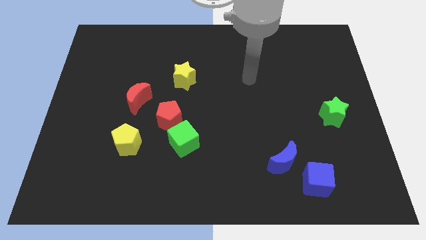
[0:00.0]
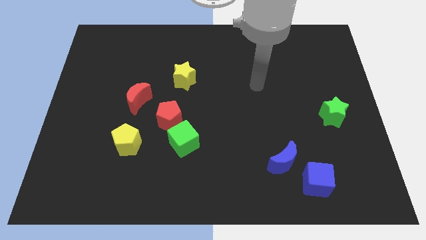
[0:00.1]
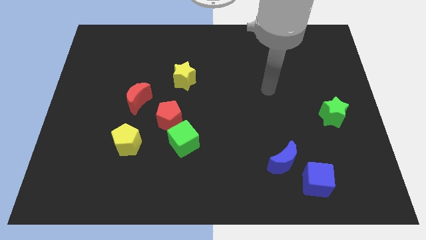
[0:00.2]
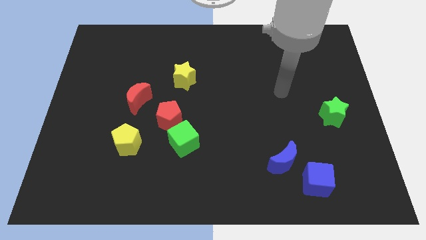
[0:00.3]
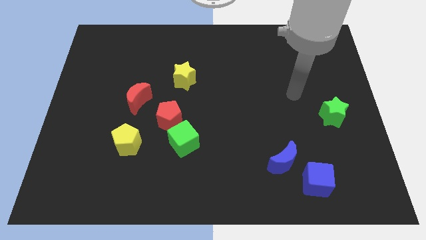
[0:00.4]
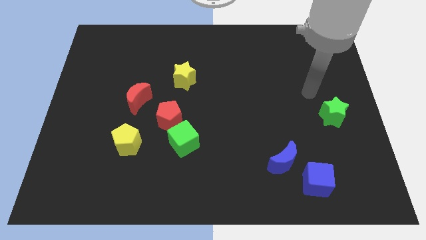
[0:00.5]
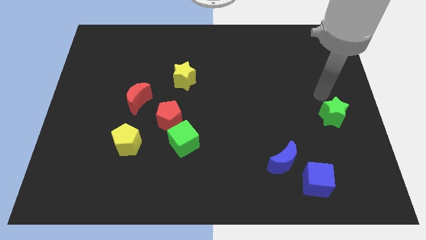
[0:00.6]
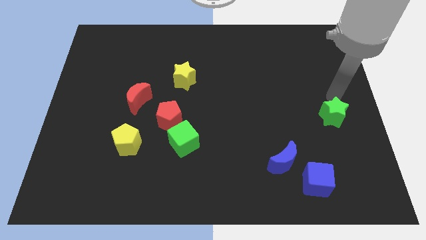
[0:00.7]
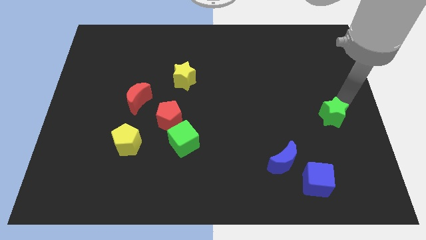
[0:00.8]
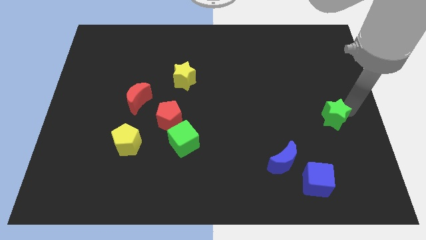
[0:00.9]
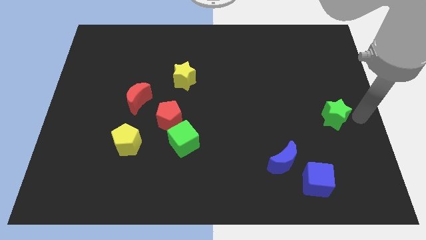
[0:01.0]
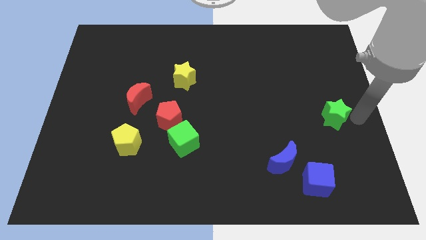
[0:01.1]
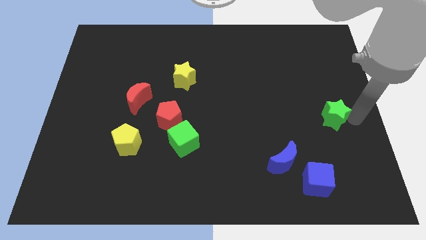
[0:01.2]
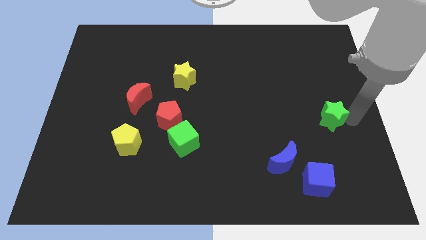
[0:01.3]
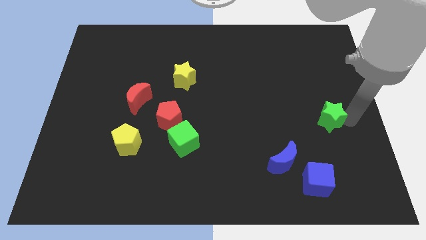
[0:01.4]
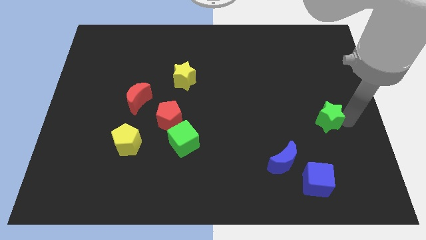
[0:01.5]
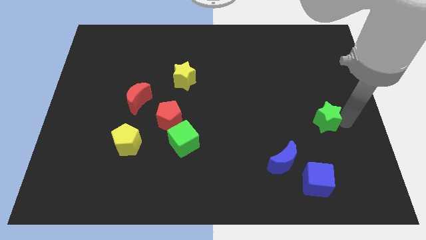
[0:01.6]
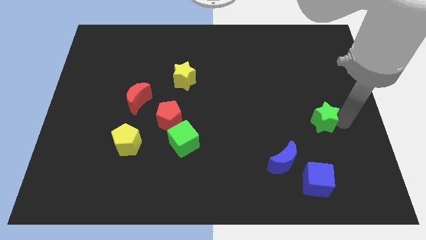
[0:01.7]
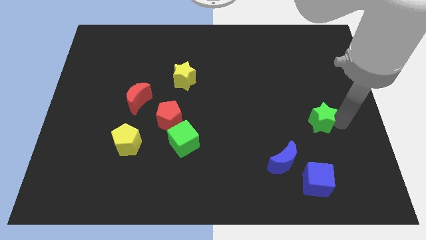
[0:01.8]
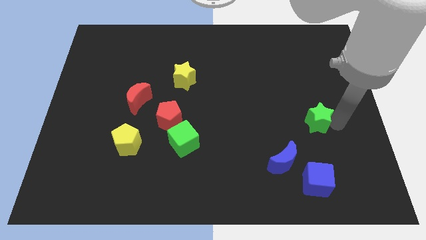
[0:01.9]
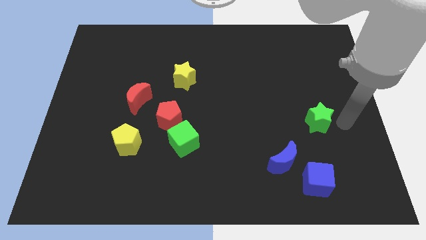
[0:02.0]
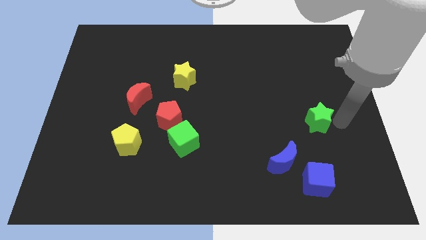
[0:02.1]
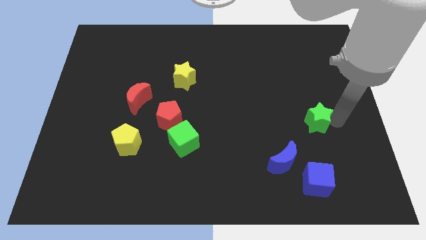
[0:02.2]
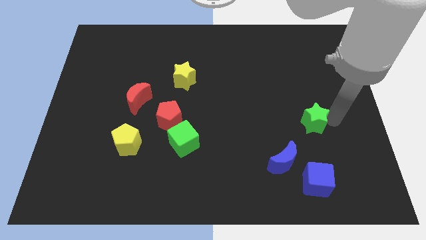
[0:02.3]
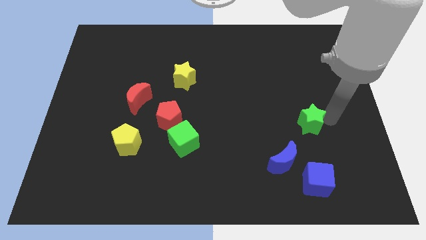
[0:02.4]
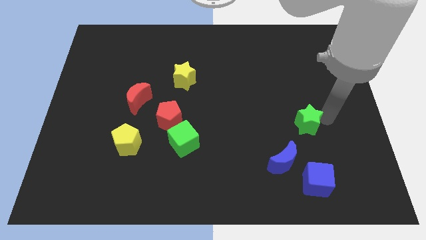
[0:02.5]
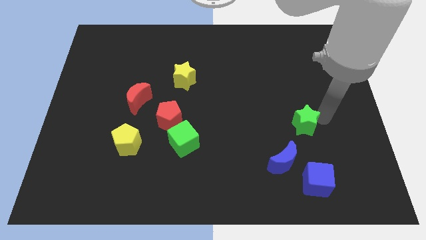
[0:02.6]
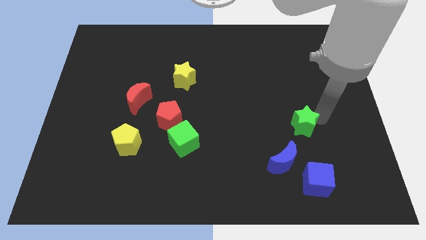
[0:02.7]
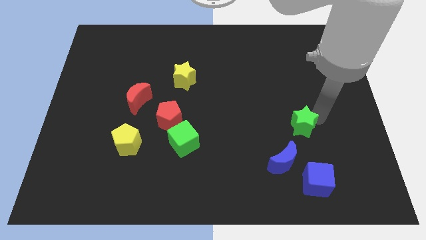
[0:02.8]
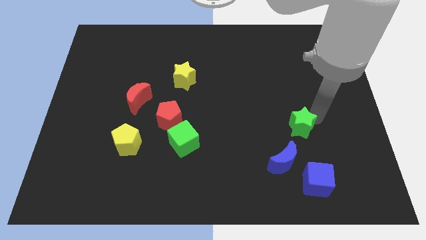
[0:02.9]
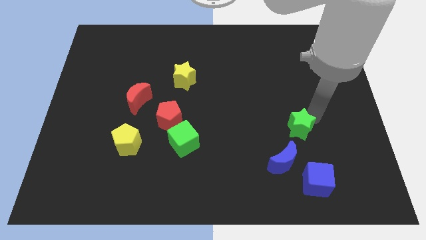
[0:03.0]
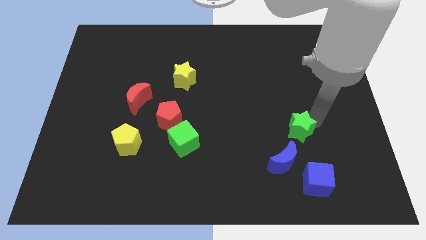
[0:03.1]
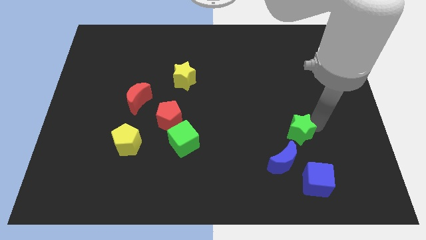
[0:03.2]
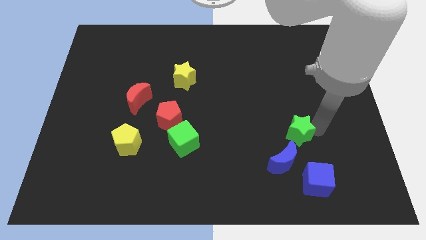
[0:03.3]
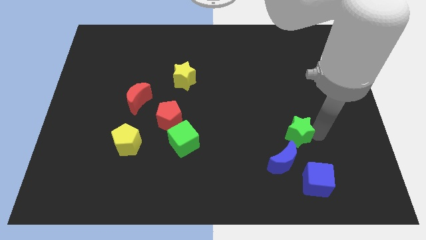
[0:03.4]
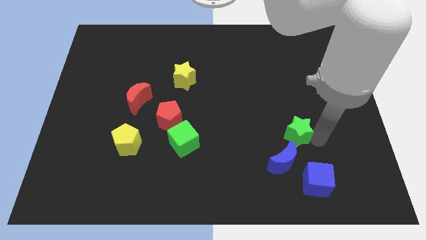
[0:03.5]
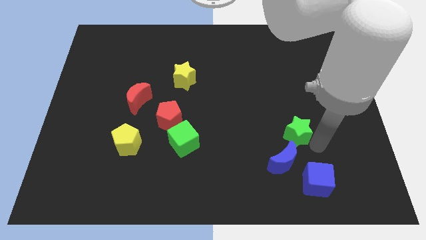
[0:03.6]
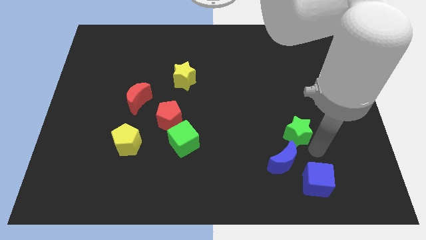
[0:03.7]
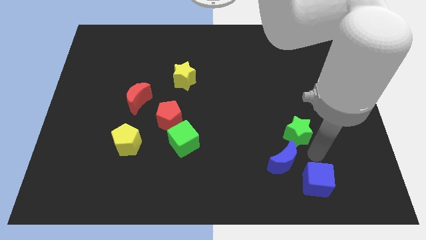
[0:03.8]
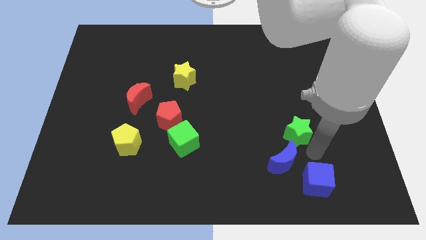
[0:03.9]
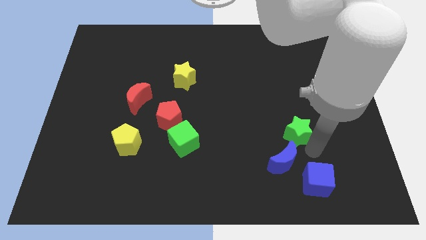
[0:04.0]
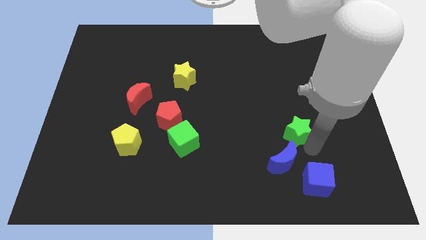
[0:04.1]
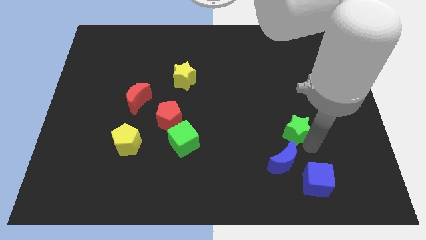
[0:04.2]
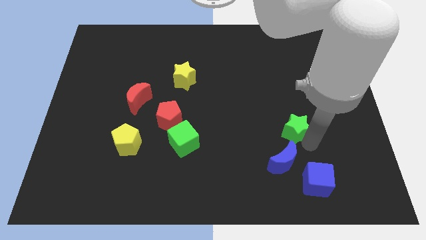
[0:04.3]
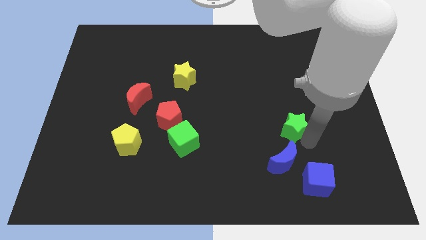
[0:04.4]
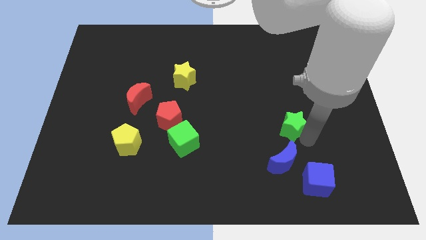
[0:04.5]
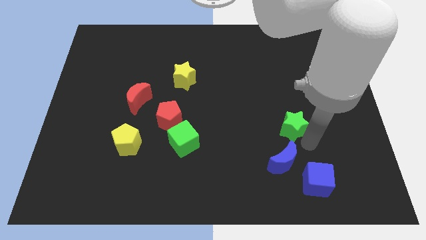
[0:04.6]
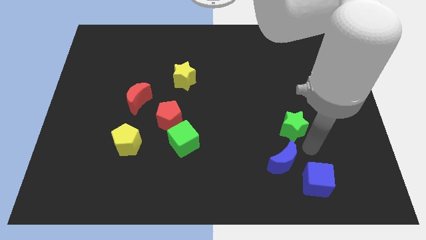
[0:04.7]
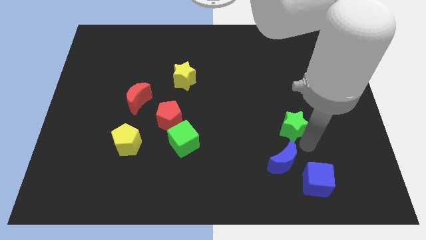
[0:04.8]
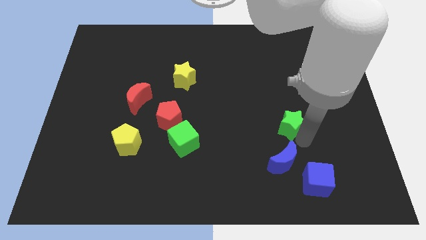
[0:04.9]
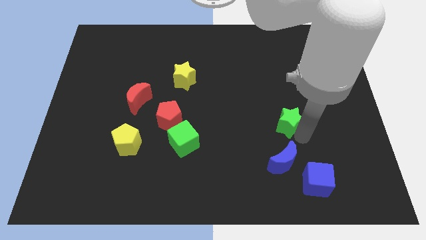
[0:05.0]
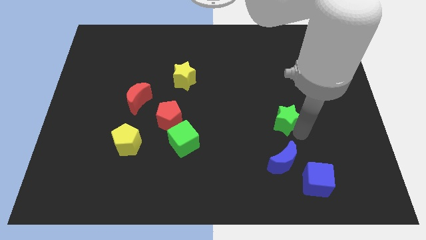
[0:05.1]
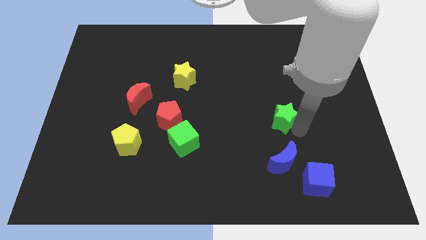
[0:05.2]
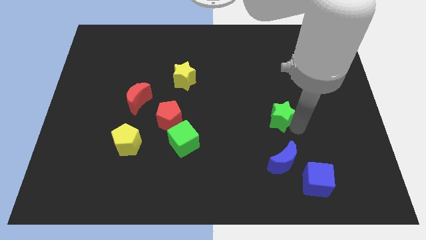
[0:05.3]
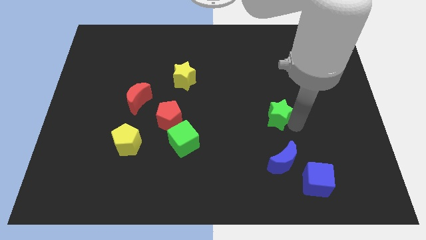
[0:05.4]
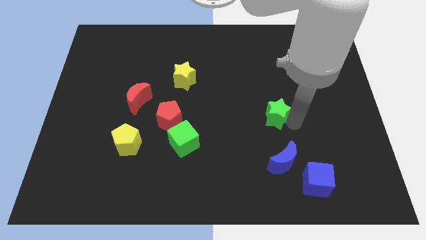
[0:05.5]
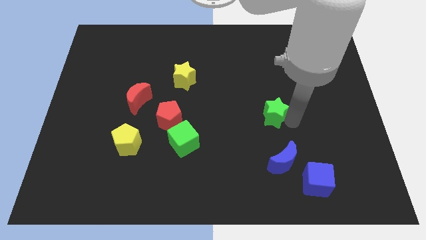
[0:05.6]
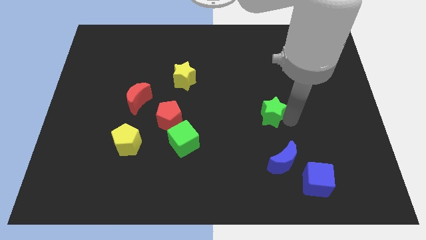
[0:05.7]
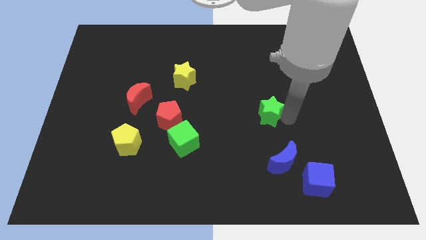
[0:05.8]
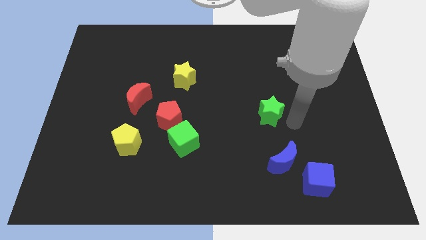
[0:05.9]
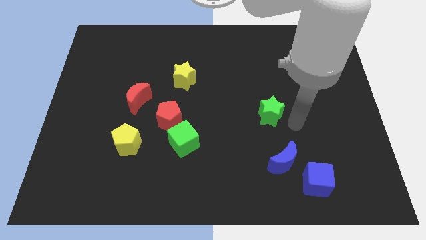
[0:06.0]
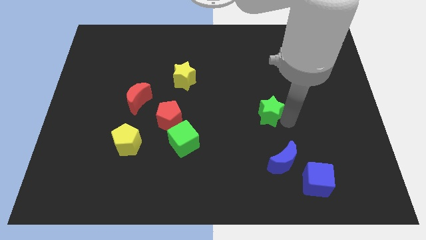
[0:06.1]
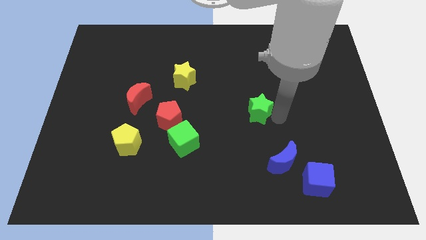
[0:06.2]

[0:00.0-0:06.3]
push the green star to the center of the board

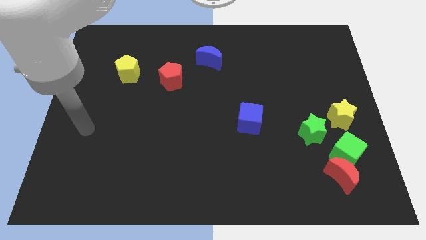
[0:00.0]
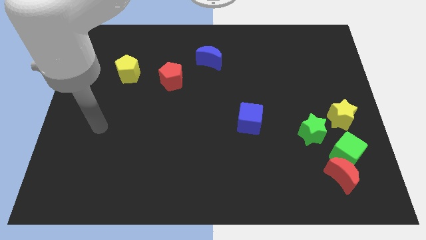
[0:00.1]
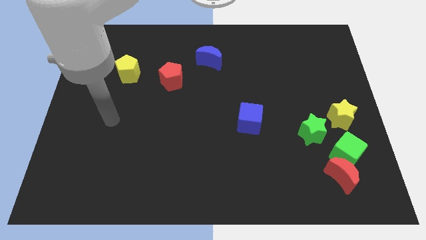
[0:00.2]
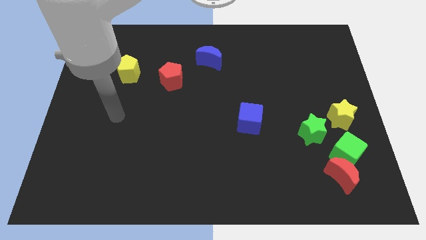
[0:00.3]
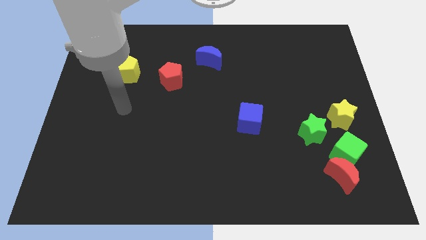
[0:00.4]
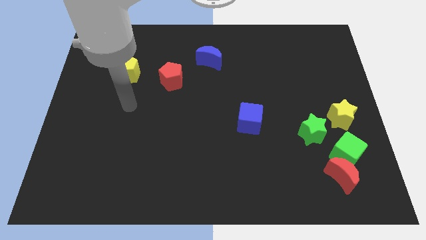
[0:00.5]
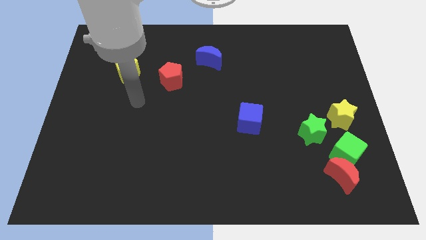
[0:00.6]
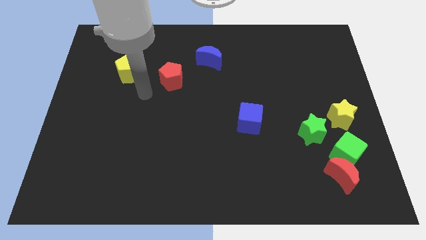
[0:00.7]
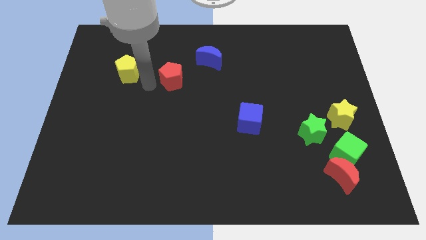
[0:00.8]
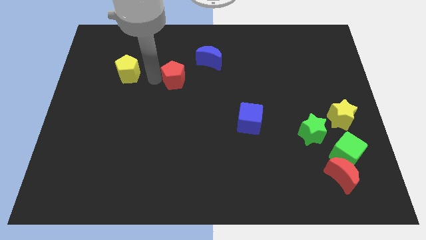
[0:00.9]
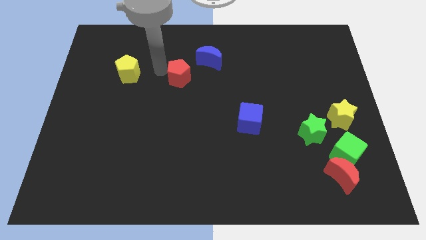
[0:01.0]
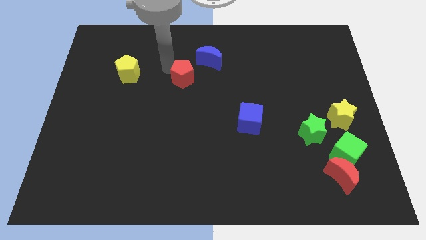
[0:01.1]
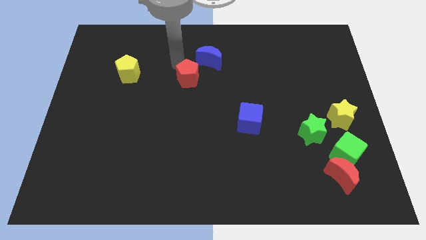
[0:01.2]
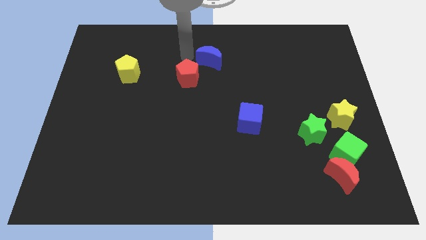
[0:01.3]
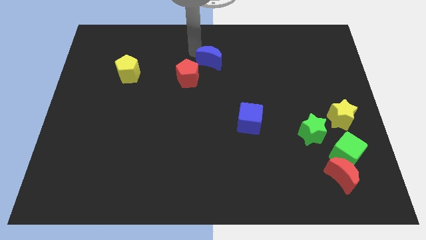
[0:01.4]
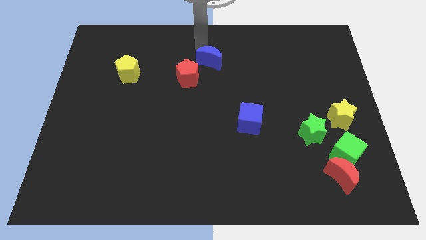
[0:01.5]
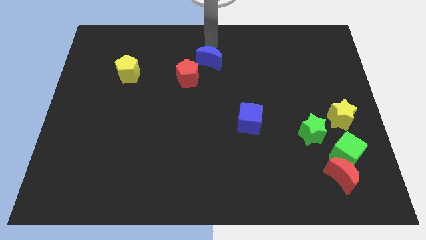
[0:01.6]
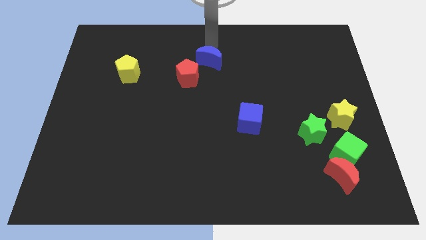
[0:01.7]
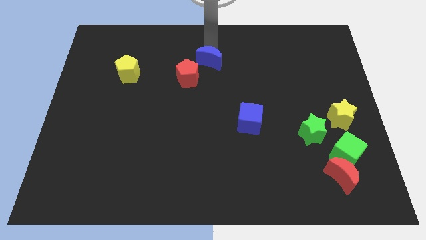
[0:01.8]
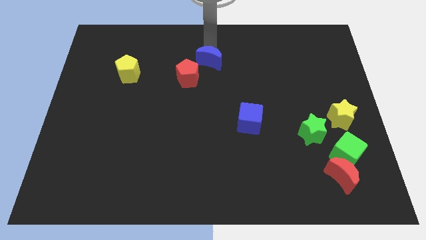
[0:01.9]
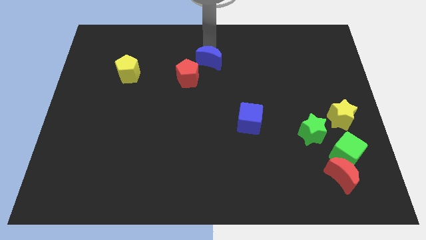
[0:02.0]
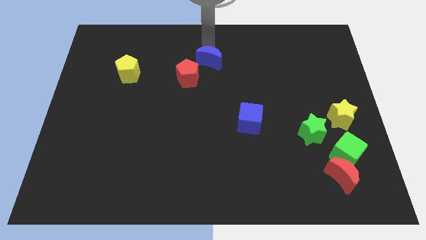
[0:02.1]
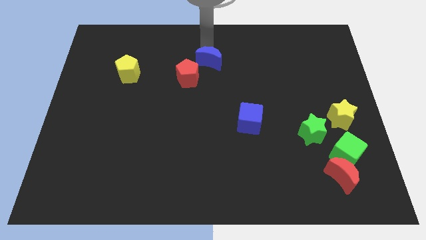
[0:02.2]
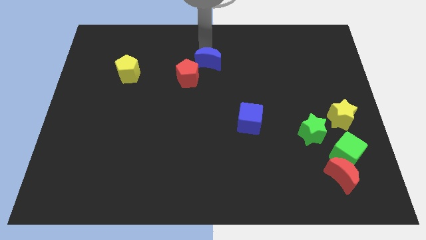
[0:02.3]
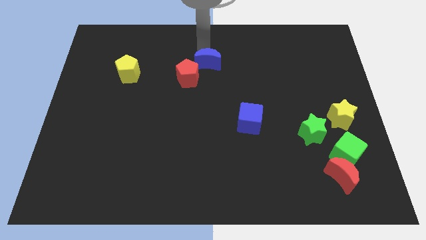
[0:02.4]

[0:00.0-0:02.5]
slide the blue moon to the middle
